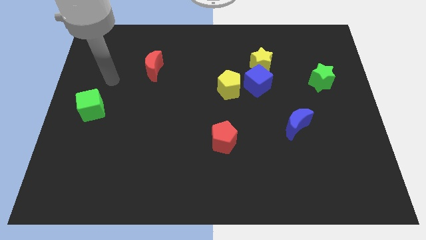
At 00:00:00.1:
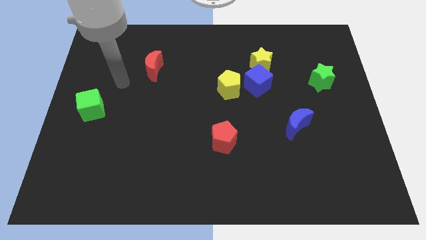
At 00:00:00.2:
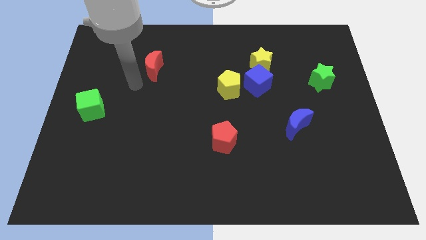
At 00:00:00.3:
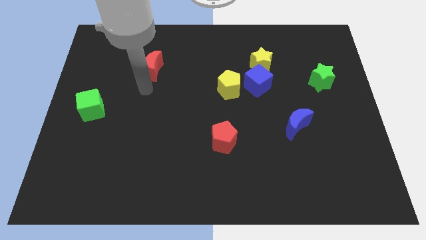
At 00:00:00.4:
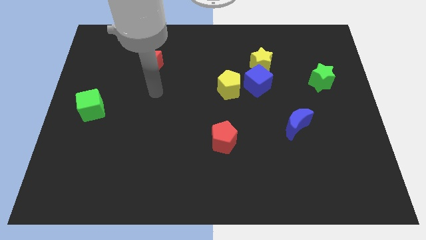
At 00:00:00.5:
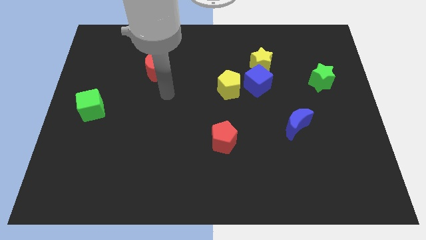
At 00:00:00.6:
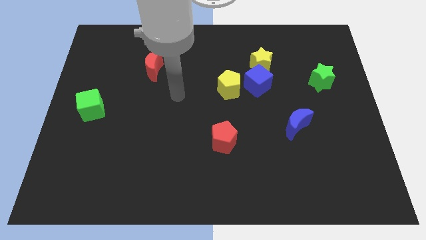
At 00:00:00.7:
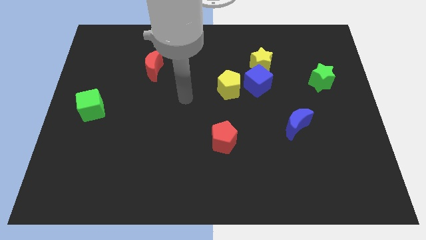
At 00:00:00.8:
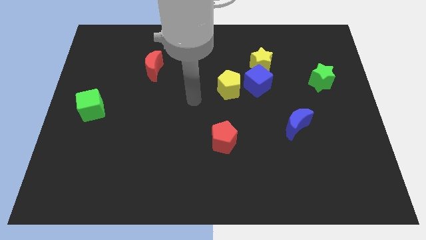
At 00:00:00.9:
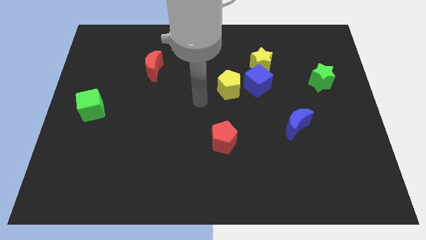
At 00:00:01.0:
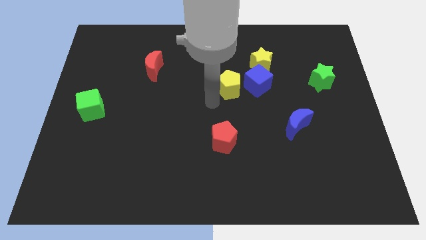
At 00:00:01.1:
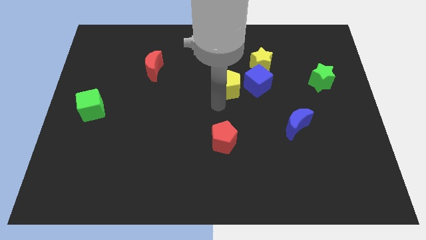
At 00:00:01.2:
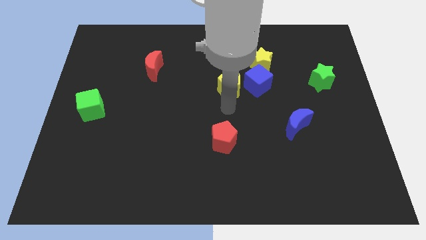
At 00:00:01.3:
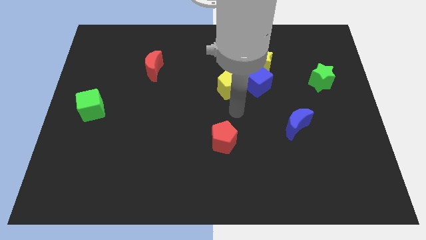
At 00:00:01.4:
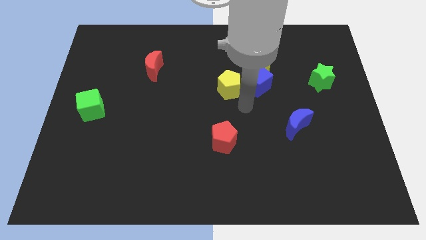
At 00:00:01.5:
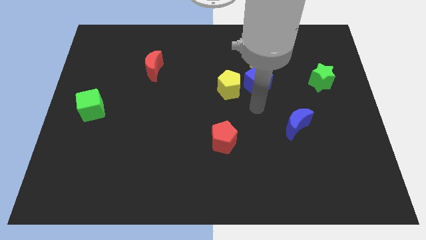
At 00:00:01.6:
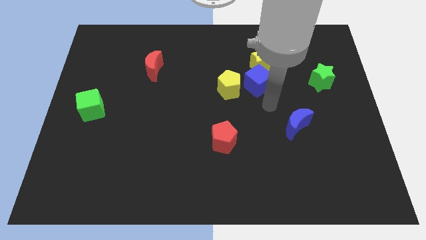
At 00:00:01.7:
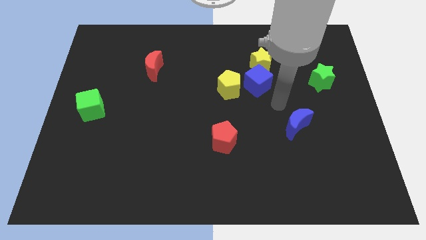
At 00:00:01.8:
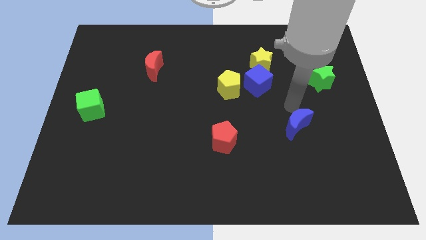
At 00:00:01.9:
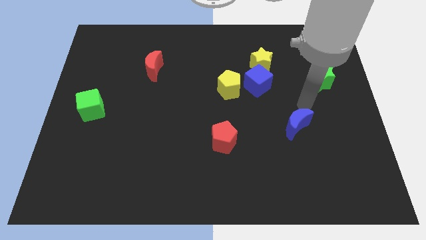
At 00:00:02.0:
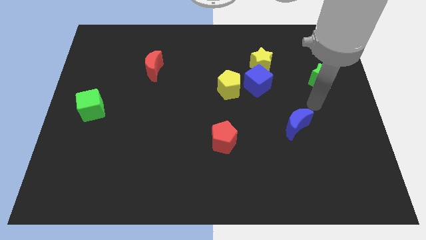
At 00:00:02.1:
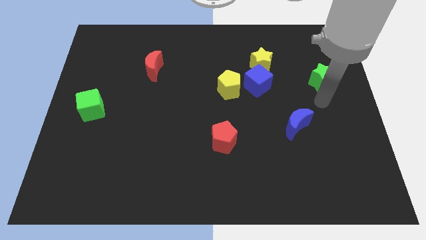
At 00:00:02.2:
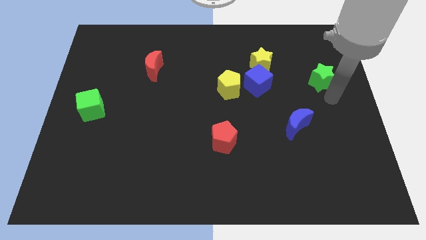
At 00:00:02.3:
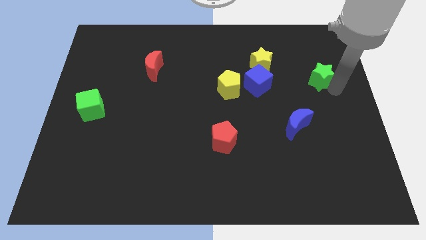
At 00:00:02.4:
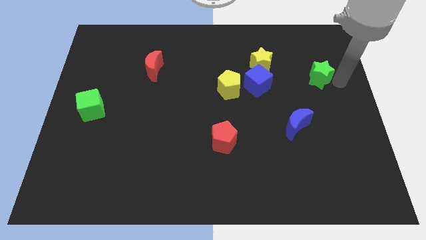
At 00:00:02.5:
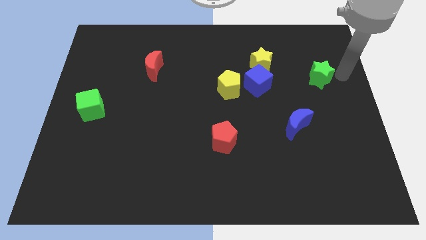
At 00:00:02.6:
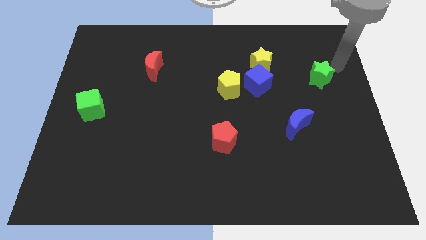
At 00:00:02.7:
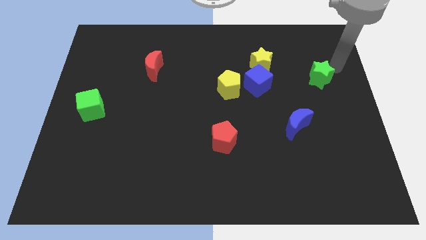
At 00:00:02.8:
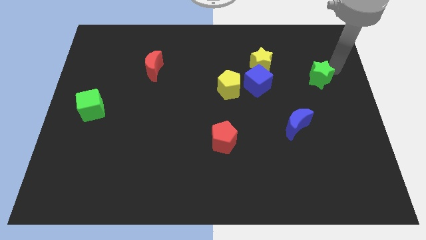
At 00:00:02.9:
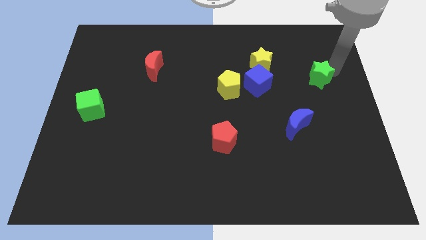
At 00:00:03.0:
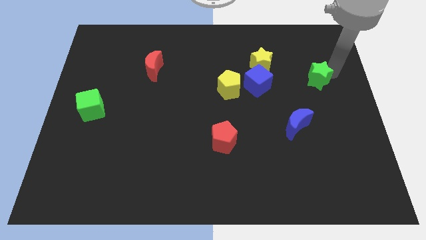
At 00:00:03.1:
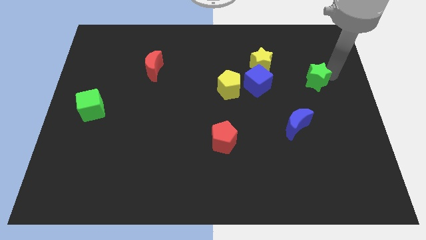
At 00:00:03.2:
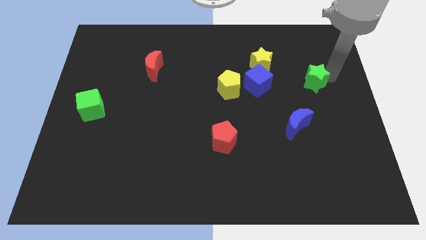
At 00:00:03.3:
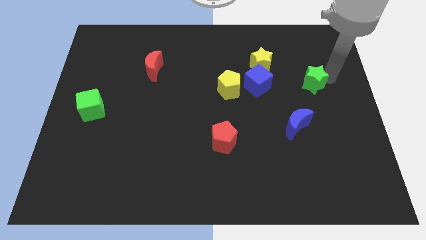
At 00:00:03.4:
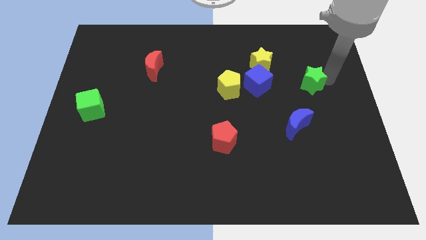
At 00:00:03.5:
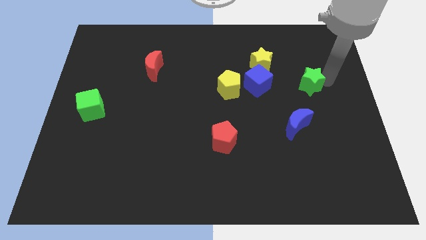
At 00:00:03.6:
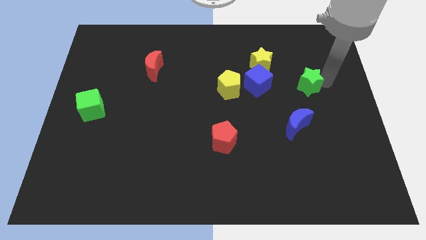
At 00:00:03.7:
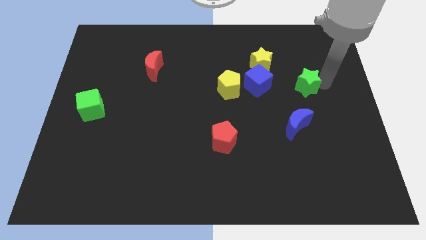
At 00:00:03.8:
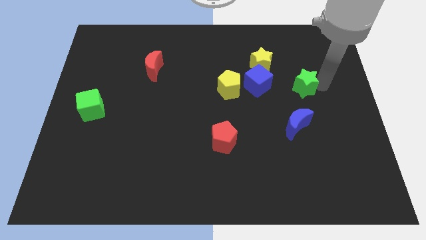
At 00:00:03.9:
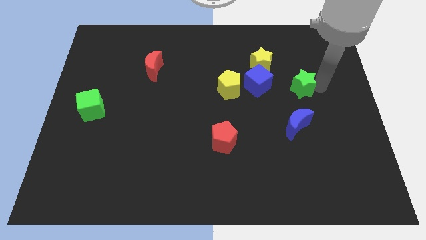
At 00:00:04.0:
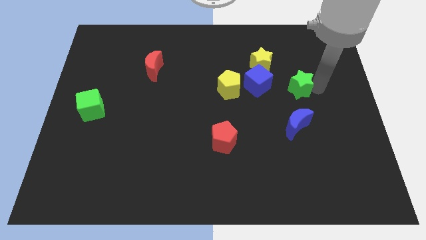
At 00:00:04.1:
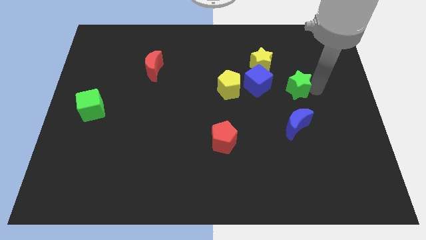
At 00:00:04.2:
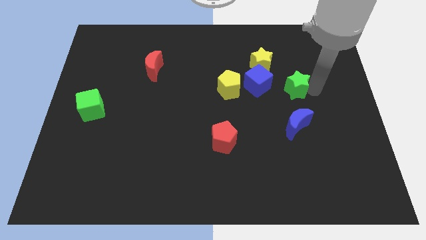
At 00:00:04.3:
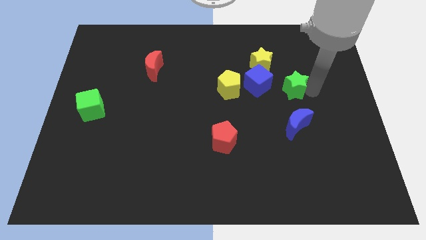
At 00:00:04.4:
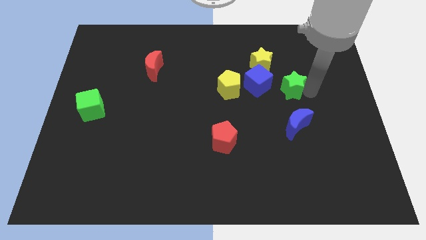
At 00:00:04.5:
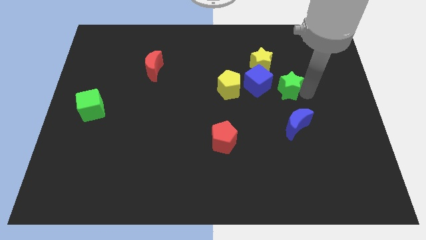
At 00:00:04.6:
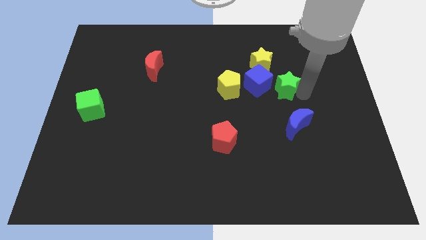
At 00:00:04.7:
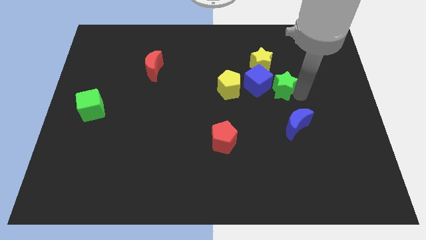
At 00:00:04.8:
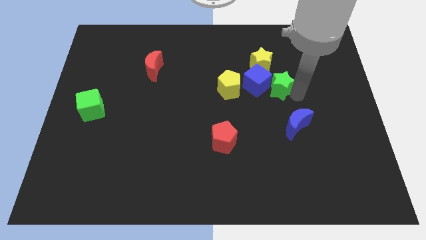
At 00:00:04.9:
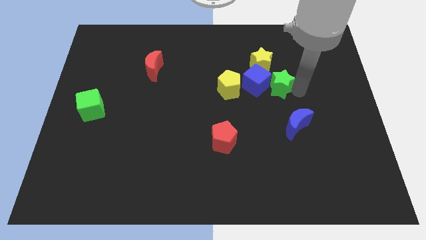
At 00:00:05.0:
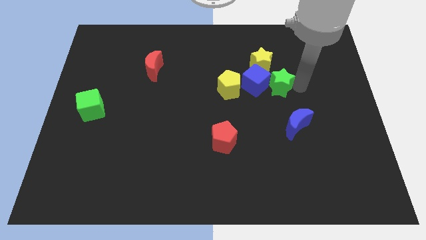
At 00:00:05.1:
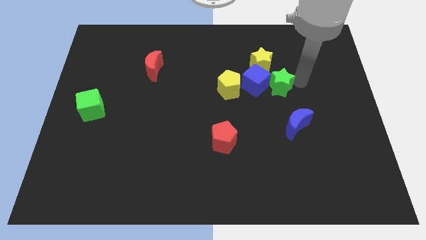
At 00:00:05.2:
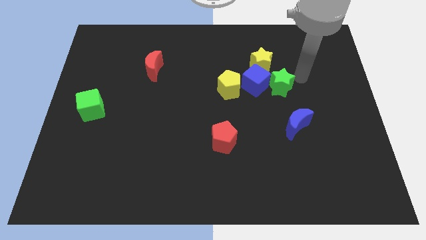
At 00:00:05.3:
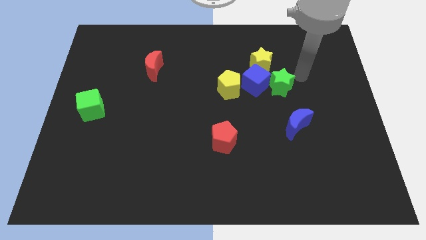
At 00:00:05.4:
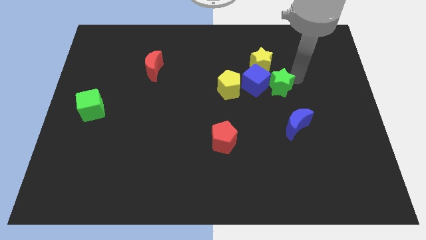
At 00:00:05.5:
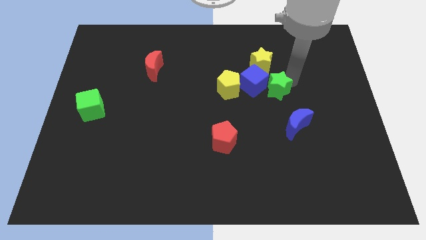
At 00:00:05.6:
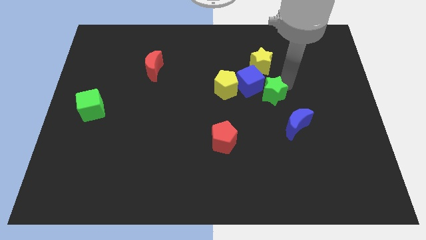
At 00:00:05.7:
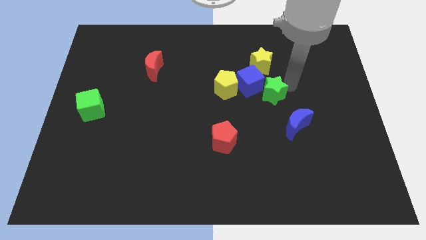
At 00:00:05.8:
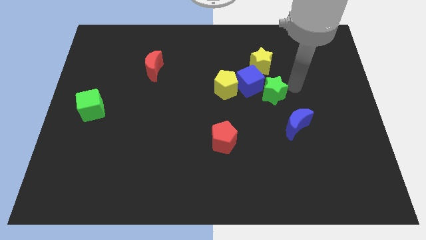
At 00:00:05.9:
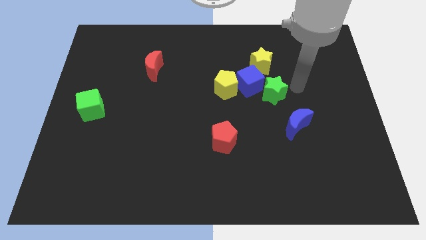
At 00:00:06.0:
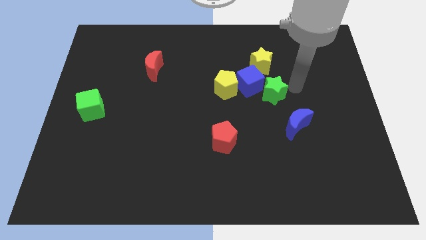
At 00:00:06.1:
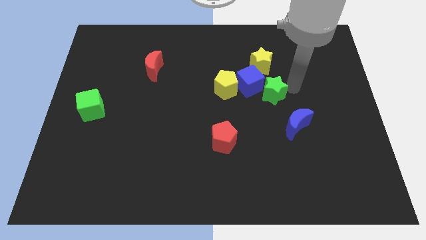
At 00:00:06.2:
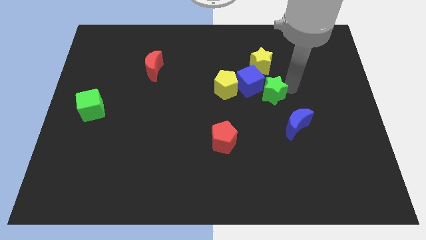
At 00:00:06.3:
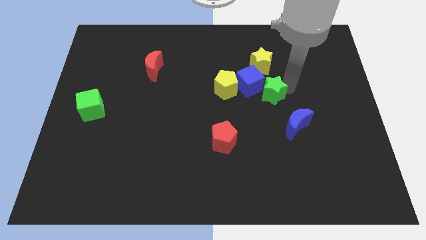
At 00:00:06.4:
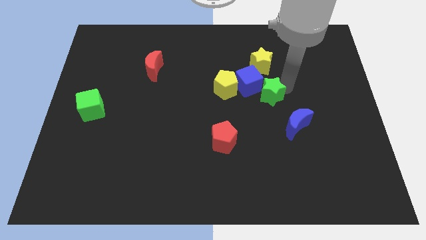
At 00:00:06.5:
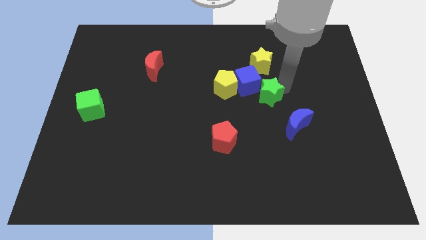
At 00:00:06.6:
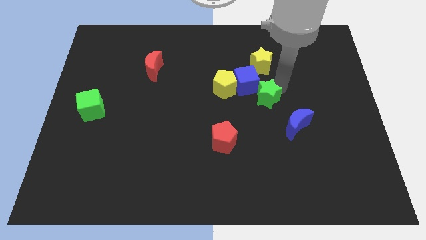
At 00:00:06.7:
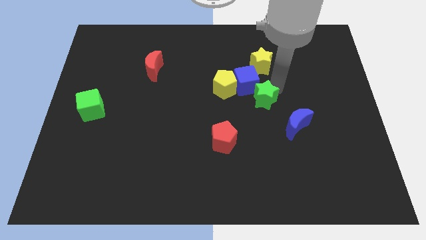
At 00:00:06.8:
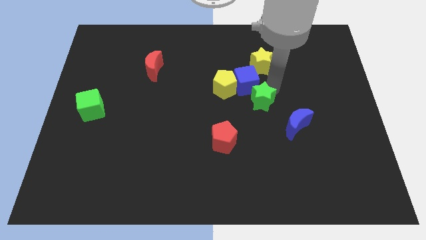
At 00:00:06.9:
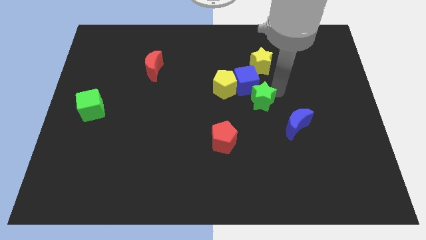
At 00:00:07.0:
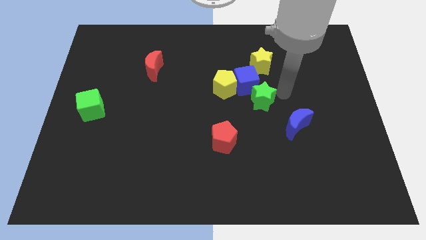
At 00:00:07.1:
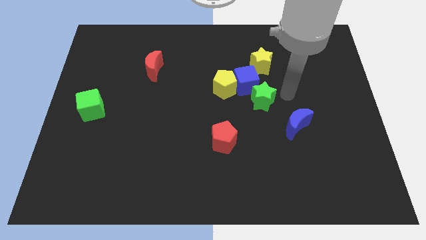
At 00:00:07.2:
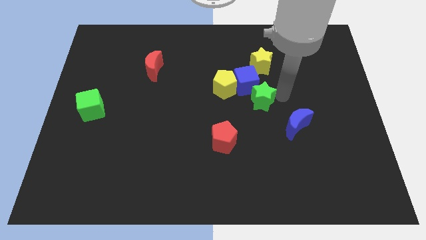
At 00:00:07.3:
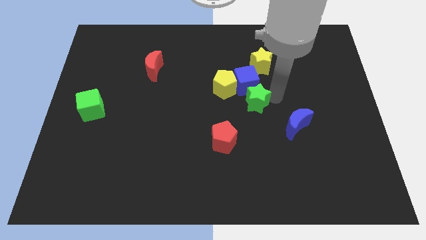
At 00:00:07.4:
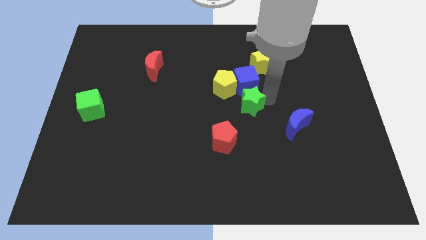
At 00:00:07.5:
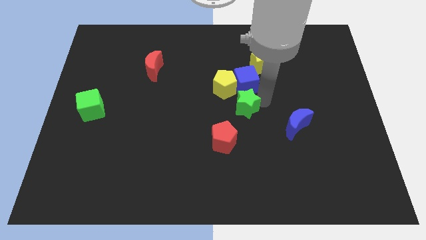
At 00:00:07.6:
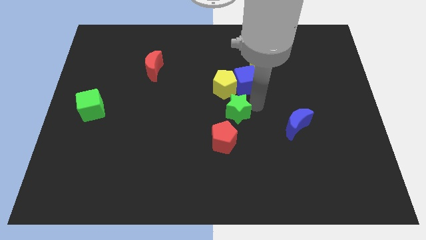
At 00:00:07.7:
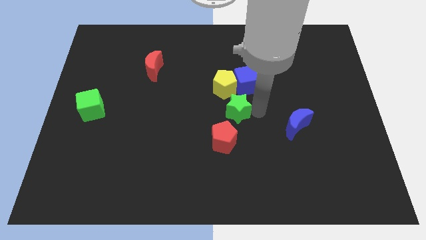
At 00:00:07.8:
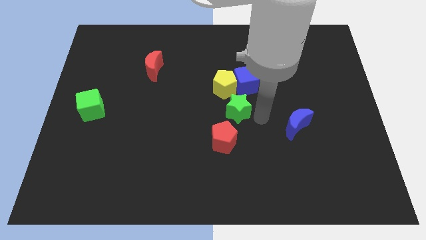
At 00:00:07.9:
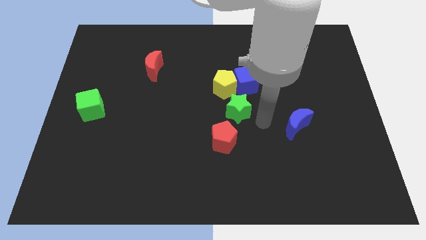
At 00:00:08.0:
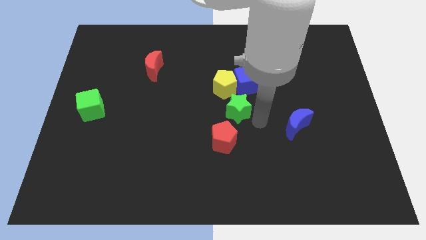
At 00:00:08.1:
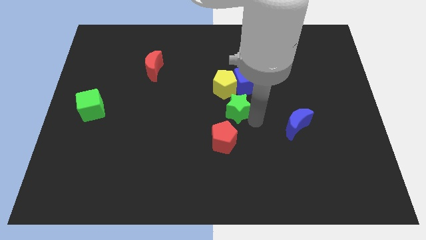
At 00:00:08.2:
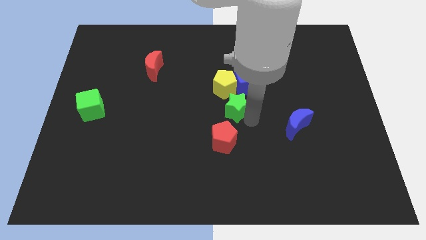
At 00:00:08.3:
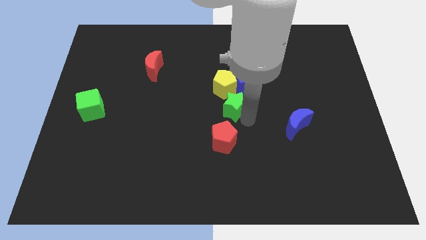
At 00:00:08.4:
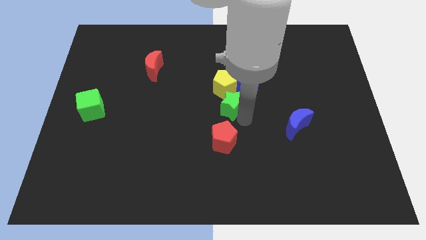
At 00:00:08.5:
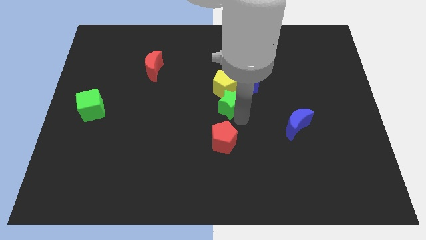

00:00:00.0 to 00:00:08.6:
slide the green star to the left
